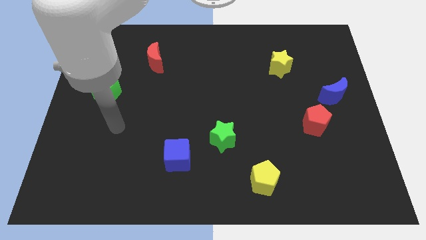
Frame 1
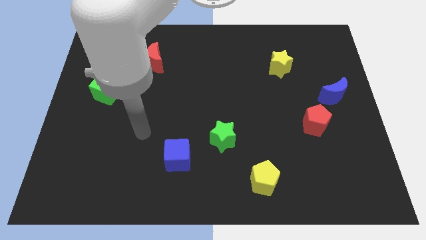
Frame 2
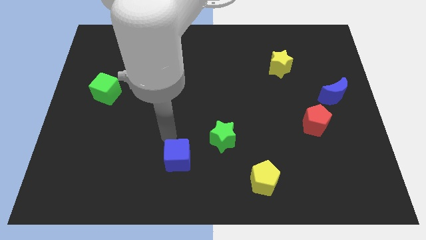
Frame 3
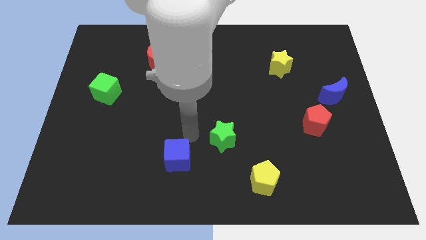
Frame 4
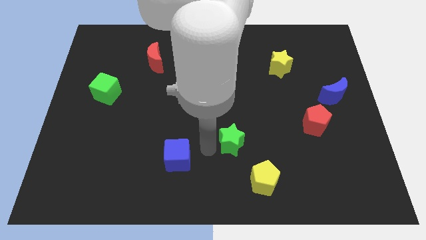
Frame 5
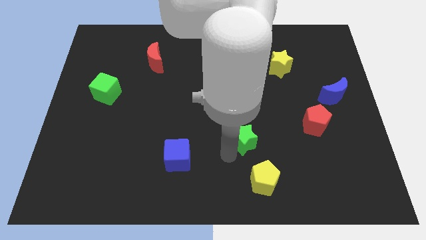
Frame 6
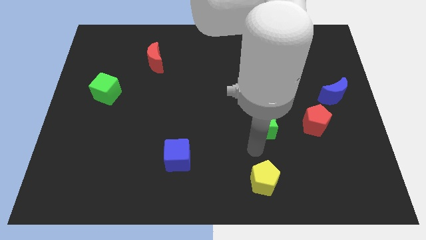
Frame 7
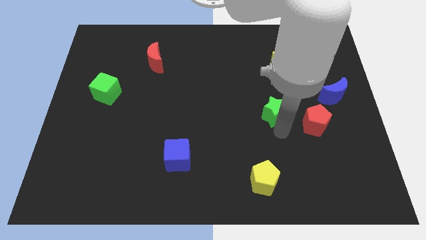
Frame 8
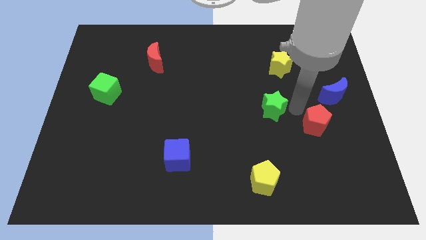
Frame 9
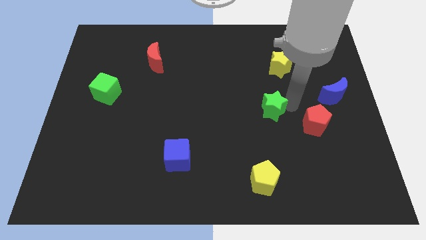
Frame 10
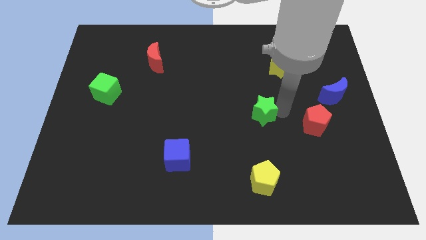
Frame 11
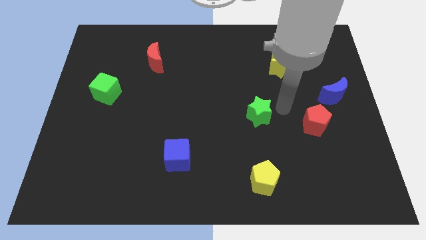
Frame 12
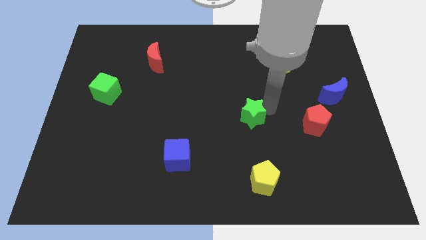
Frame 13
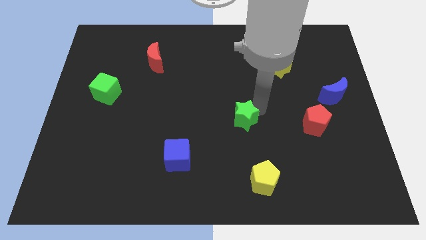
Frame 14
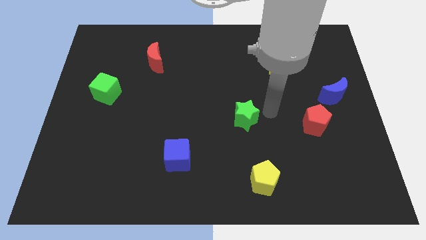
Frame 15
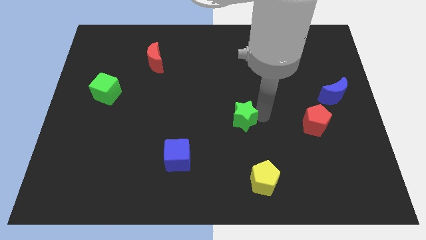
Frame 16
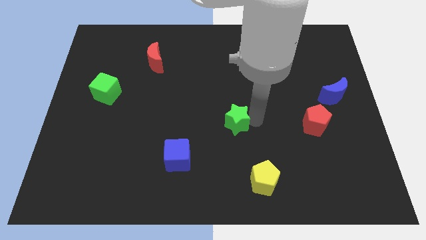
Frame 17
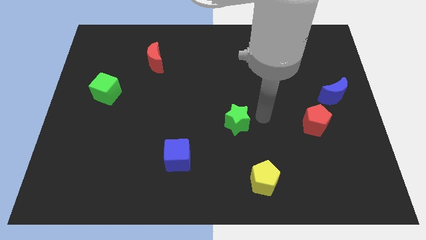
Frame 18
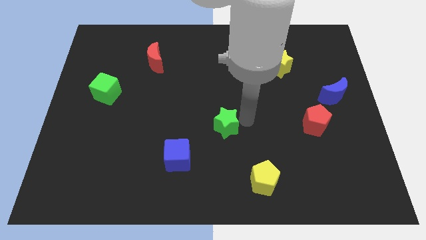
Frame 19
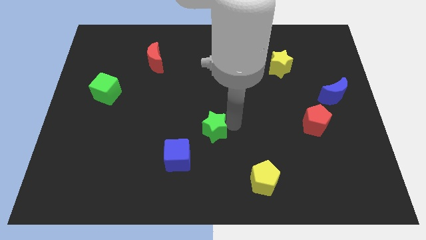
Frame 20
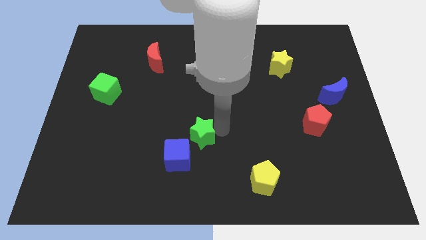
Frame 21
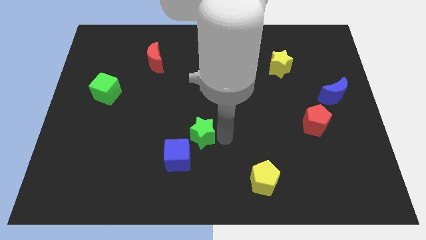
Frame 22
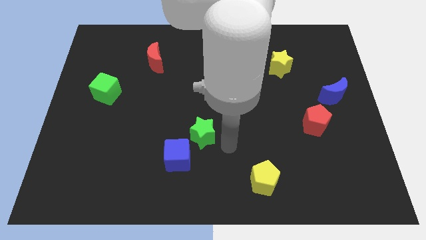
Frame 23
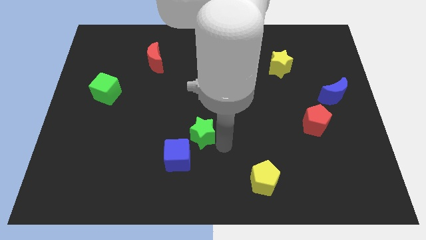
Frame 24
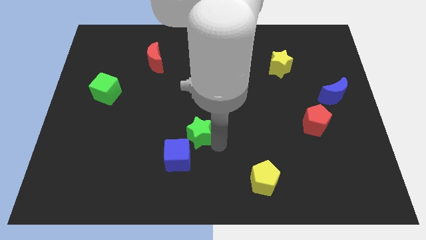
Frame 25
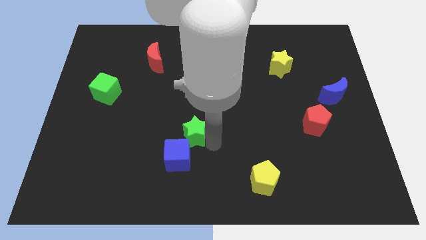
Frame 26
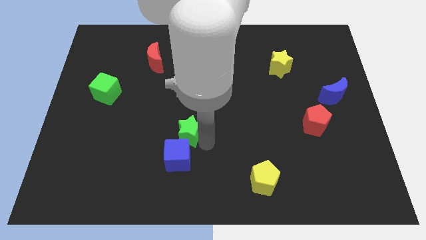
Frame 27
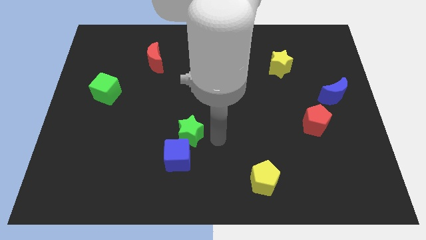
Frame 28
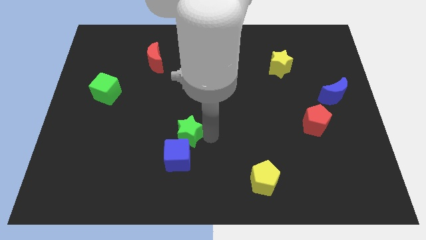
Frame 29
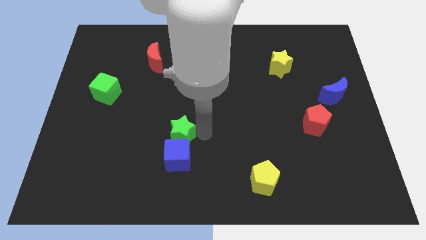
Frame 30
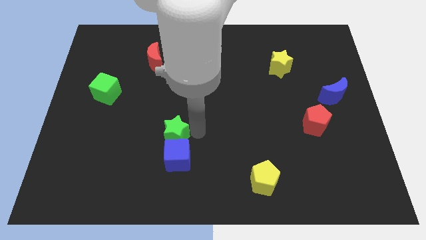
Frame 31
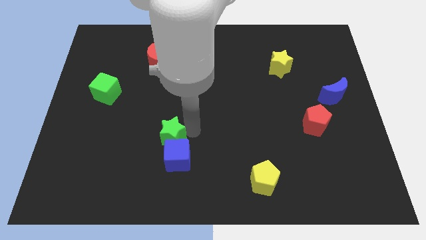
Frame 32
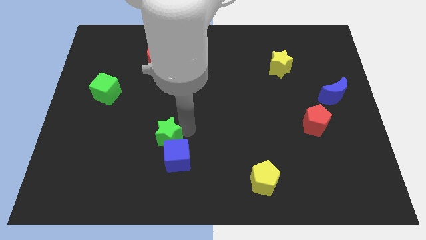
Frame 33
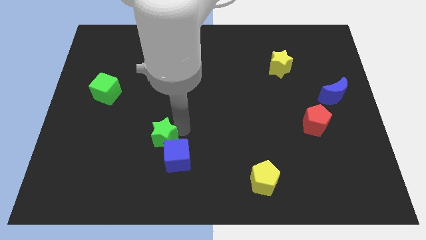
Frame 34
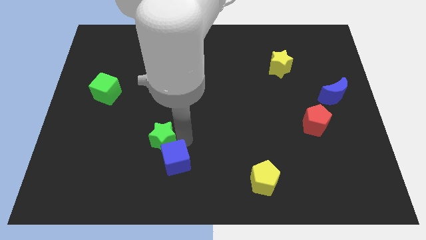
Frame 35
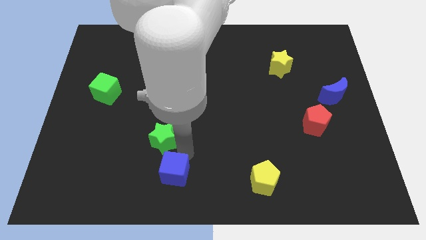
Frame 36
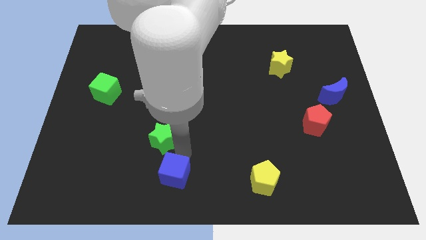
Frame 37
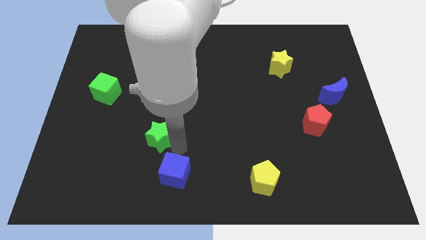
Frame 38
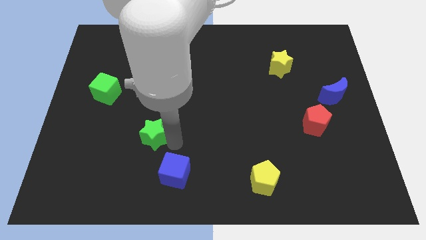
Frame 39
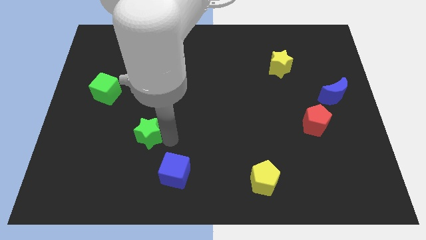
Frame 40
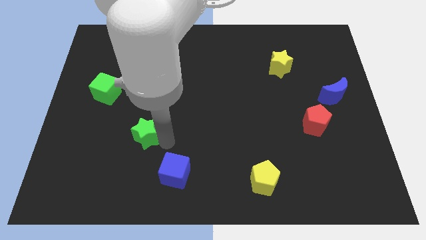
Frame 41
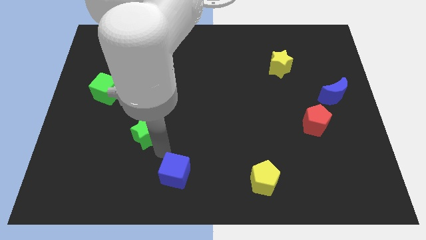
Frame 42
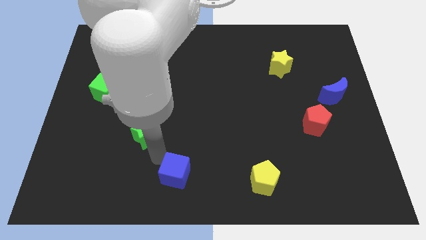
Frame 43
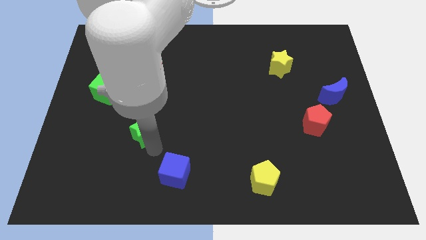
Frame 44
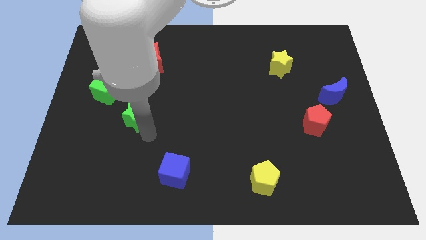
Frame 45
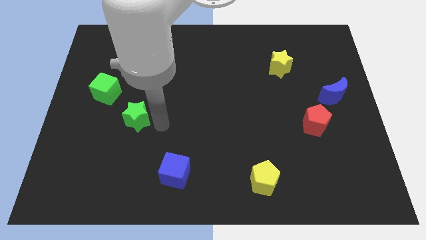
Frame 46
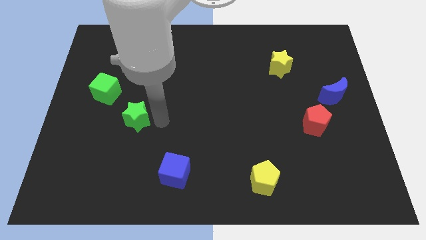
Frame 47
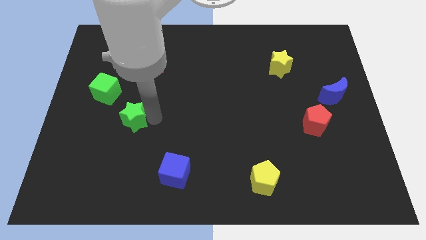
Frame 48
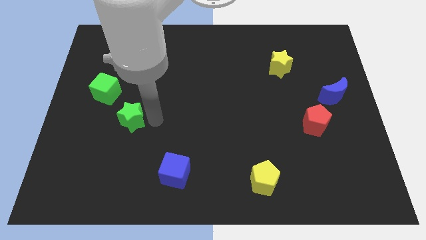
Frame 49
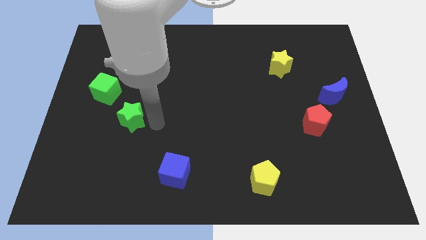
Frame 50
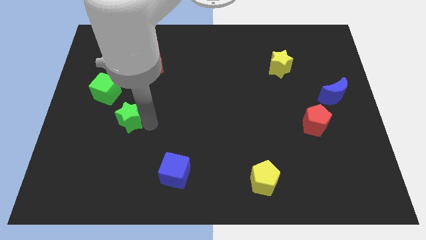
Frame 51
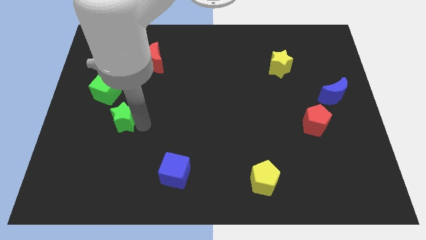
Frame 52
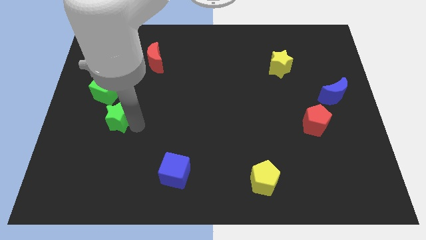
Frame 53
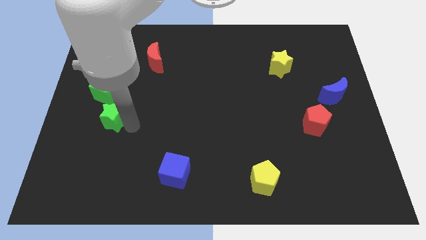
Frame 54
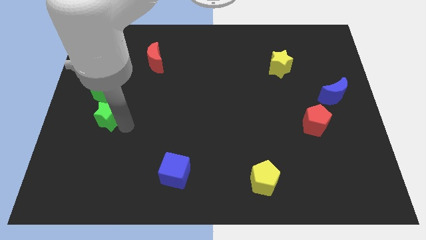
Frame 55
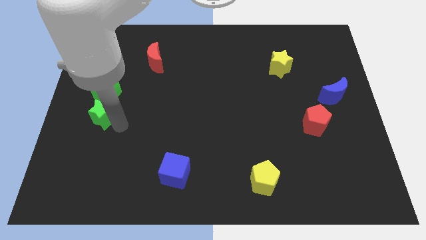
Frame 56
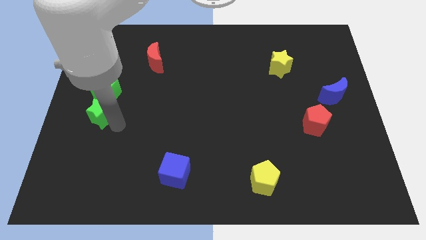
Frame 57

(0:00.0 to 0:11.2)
move the green star to the center left

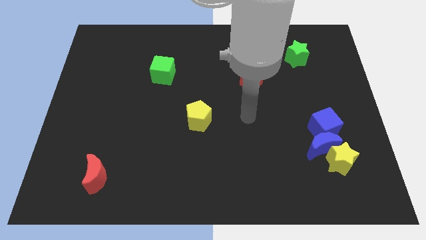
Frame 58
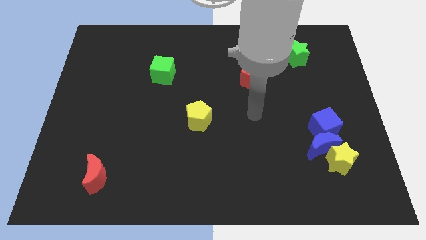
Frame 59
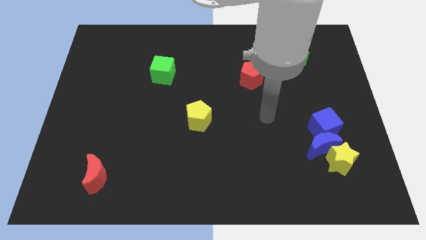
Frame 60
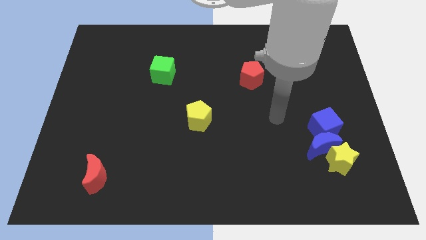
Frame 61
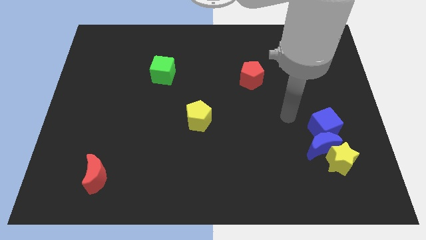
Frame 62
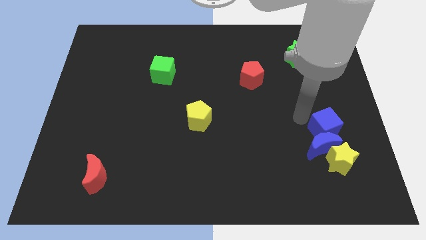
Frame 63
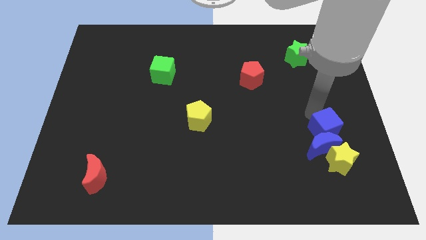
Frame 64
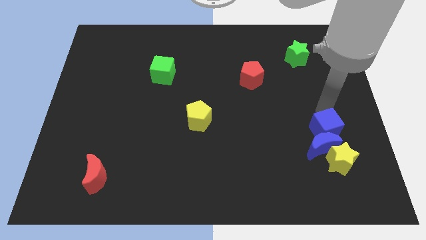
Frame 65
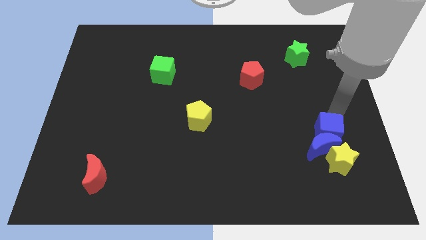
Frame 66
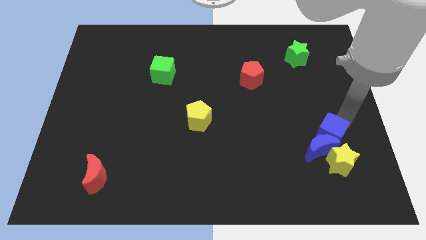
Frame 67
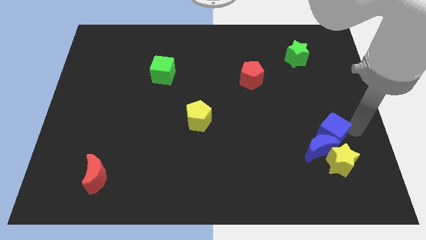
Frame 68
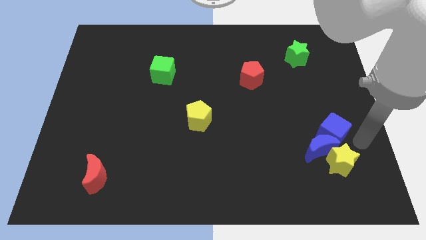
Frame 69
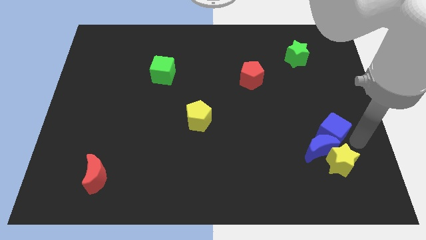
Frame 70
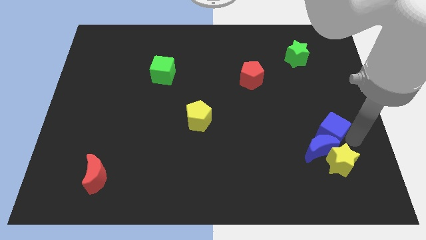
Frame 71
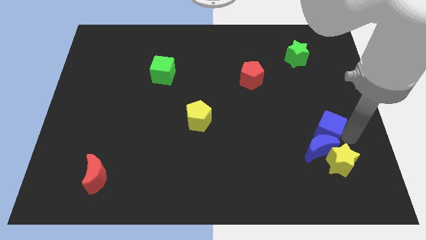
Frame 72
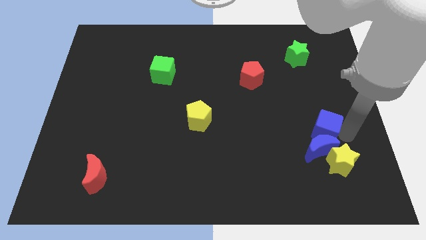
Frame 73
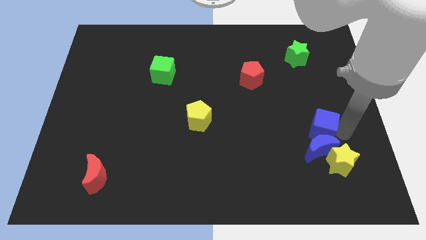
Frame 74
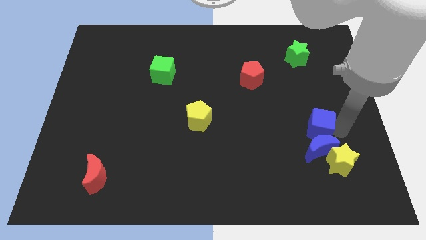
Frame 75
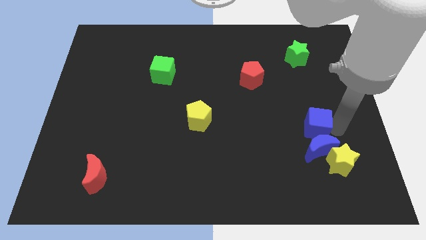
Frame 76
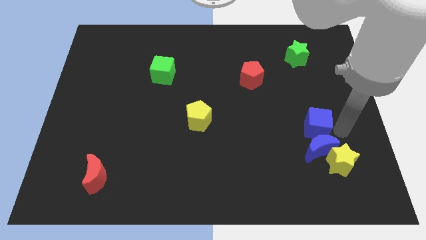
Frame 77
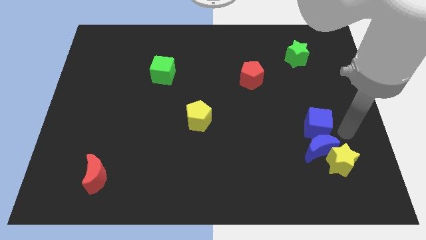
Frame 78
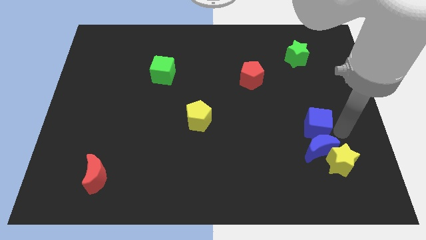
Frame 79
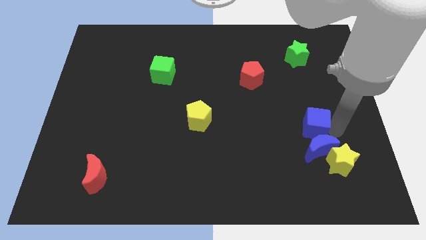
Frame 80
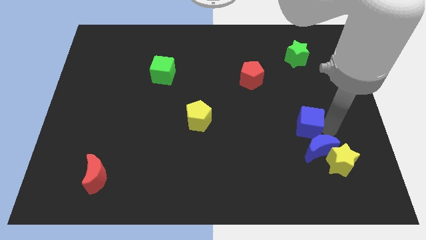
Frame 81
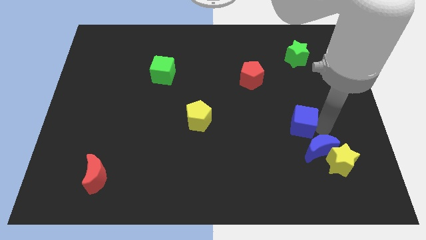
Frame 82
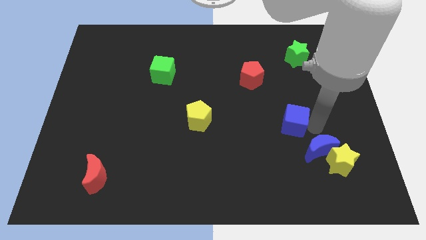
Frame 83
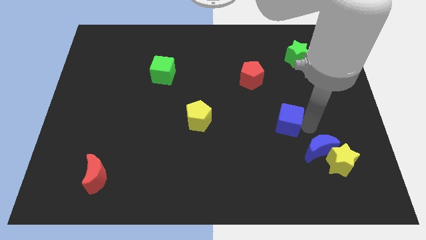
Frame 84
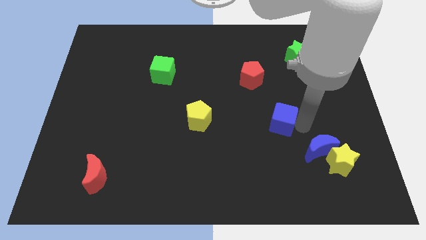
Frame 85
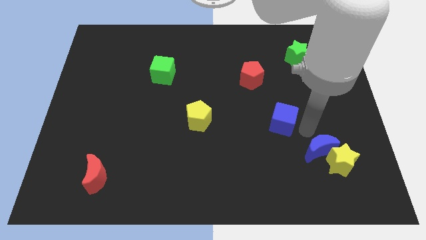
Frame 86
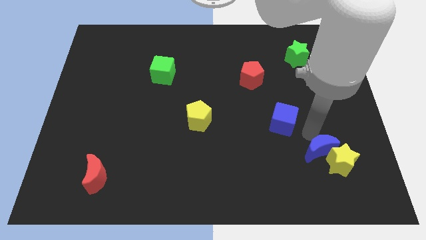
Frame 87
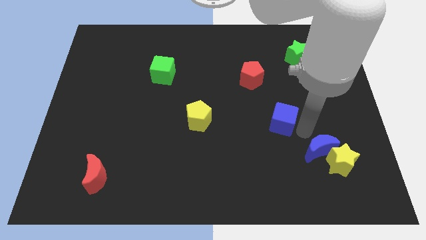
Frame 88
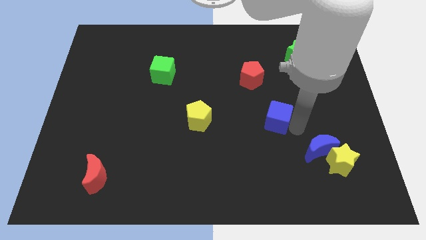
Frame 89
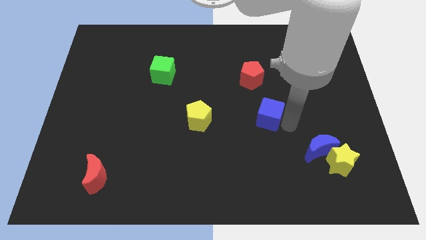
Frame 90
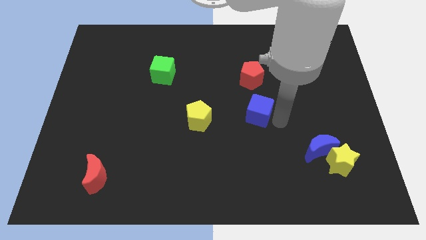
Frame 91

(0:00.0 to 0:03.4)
slide the blue cube to the center
